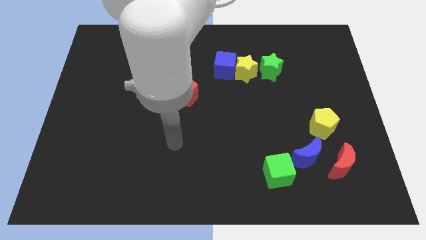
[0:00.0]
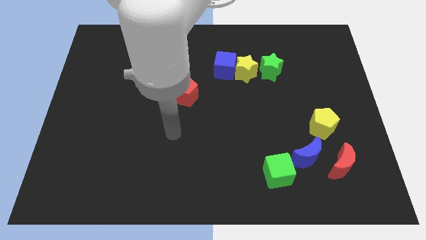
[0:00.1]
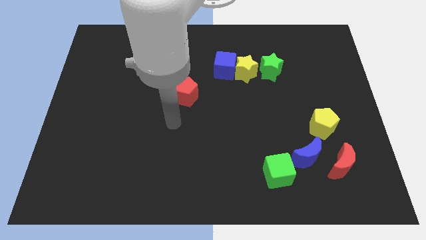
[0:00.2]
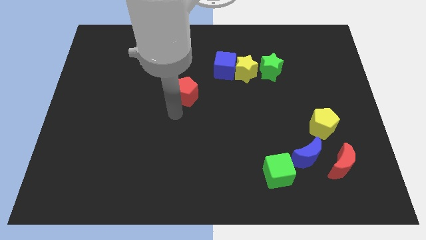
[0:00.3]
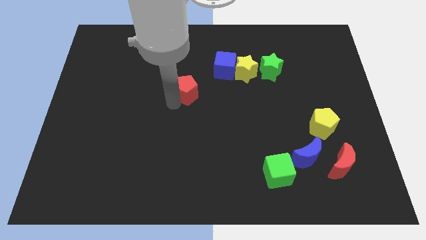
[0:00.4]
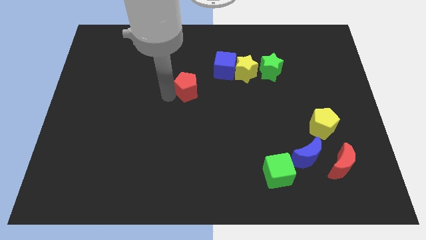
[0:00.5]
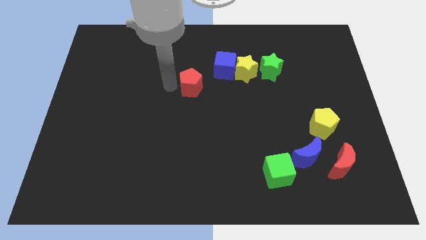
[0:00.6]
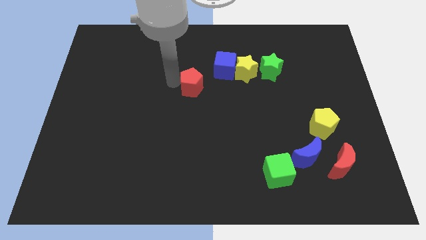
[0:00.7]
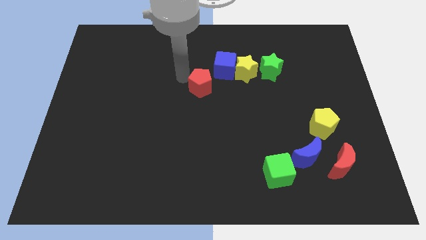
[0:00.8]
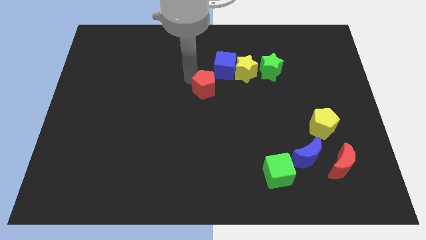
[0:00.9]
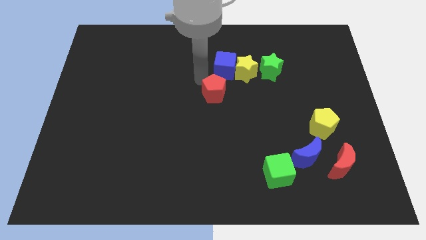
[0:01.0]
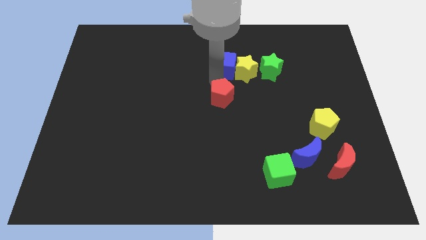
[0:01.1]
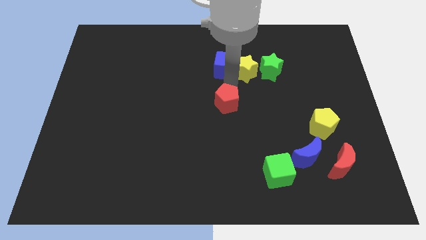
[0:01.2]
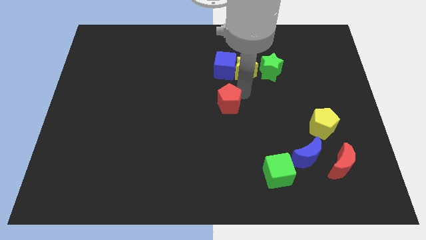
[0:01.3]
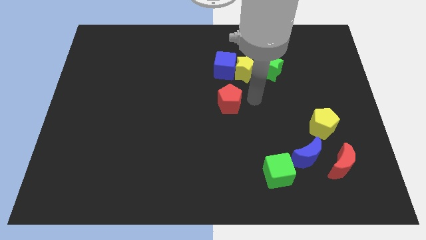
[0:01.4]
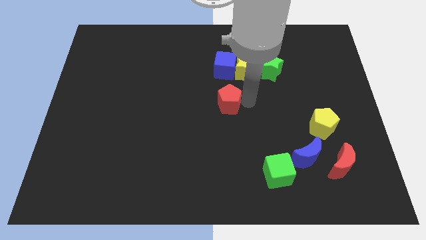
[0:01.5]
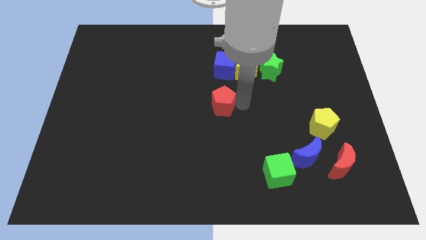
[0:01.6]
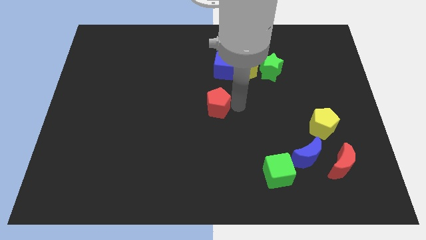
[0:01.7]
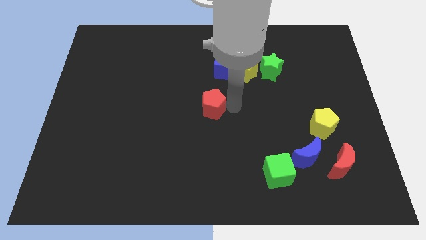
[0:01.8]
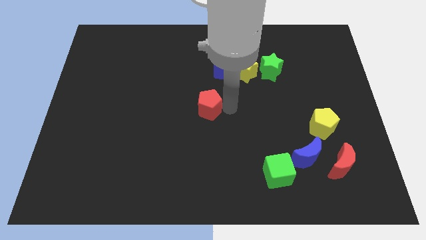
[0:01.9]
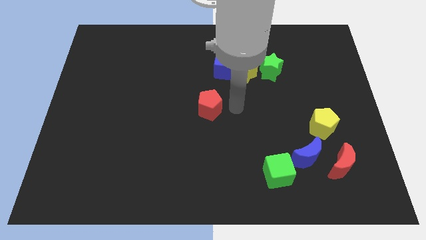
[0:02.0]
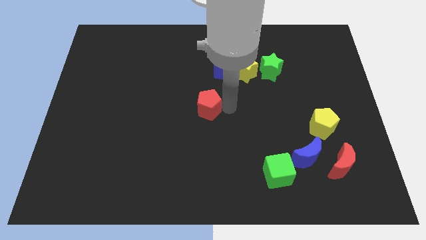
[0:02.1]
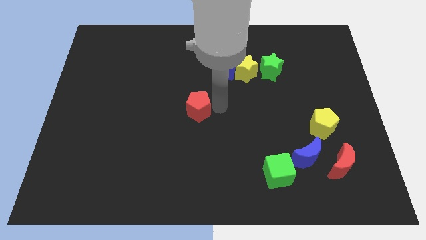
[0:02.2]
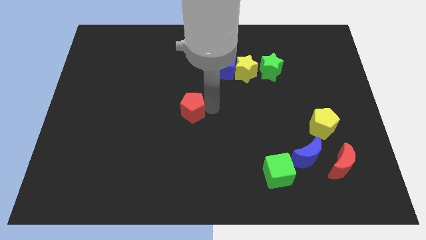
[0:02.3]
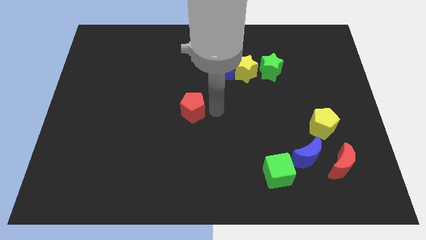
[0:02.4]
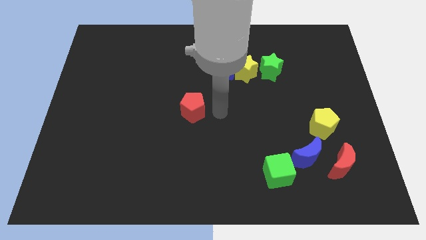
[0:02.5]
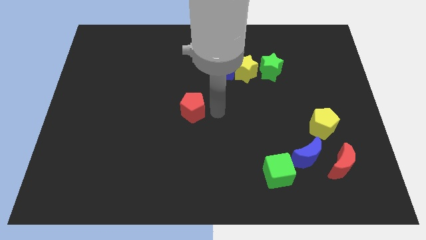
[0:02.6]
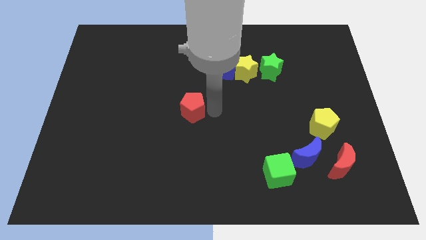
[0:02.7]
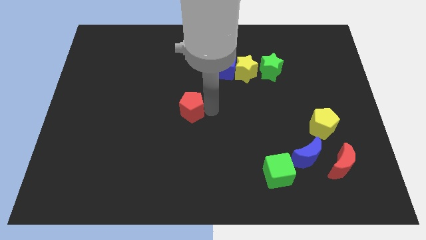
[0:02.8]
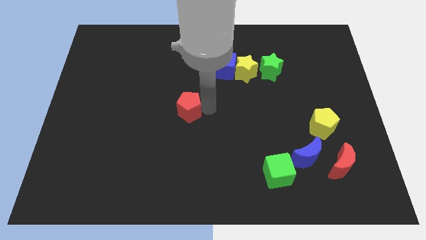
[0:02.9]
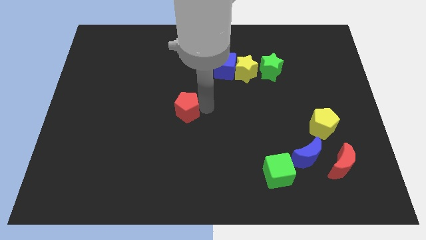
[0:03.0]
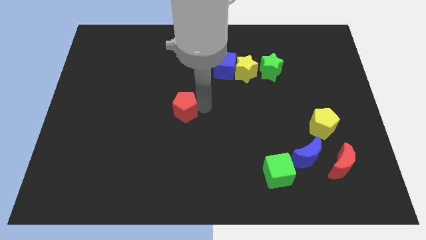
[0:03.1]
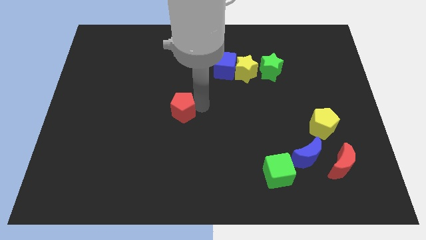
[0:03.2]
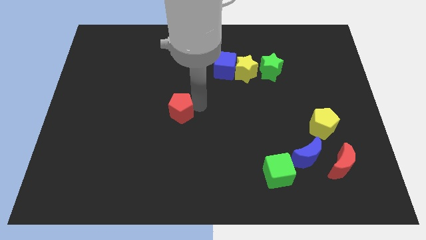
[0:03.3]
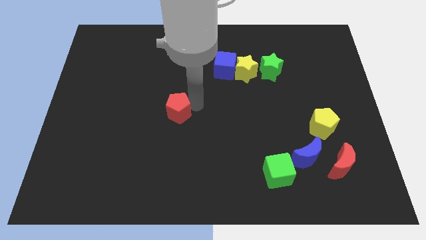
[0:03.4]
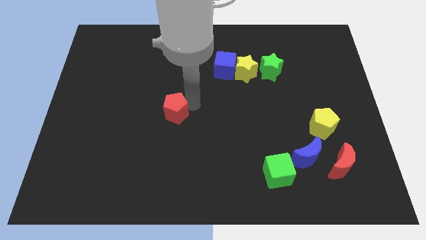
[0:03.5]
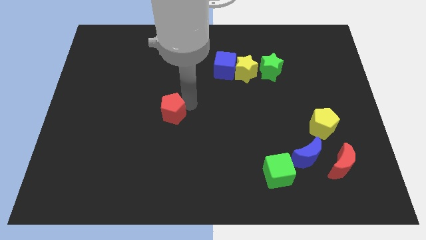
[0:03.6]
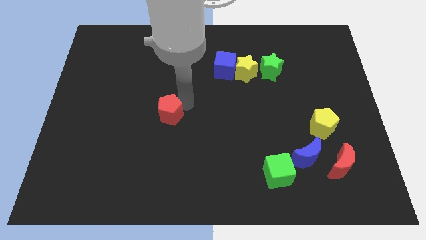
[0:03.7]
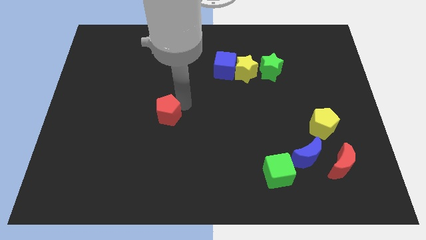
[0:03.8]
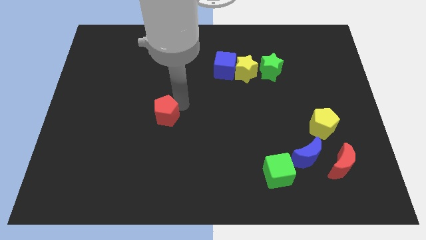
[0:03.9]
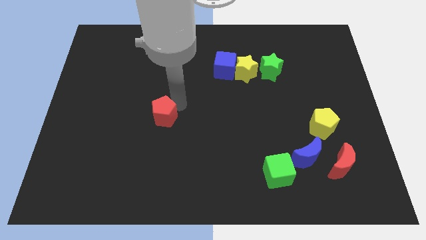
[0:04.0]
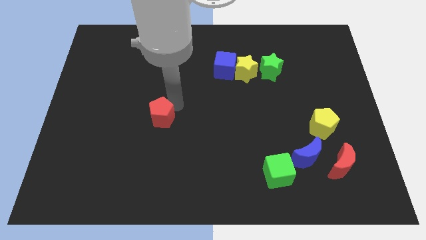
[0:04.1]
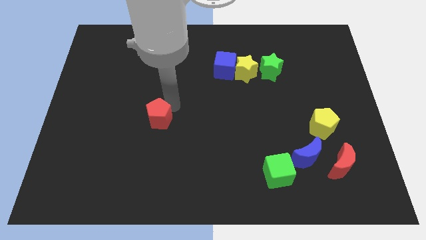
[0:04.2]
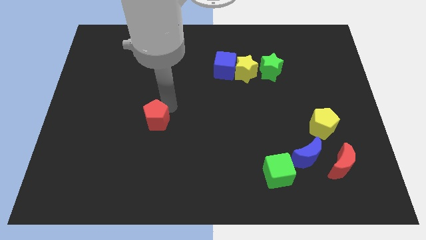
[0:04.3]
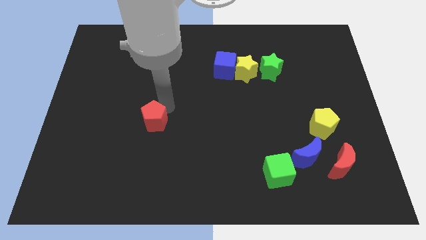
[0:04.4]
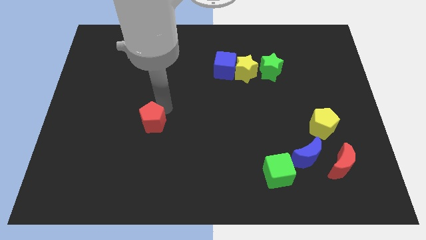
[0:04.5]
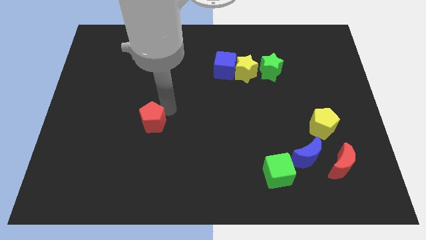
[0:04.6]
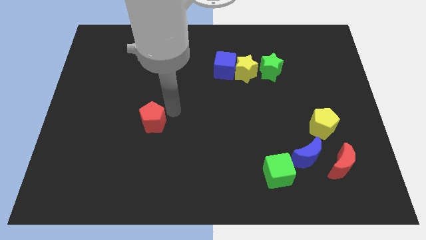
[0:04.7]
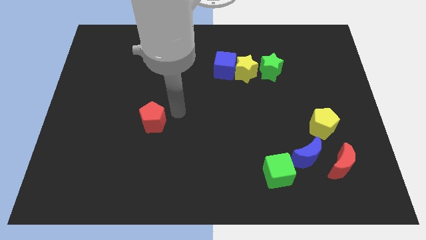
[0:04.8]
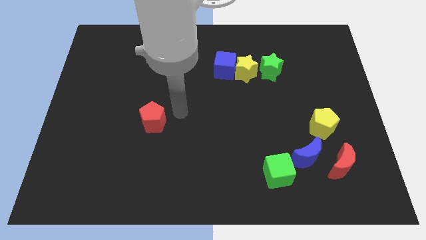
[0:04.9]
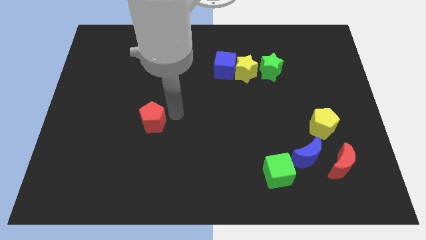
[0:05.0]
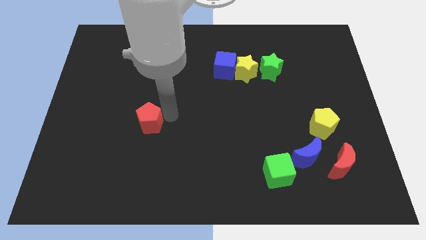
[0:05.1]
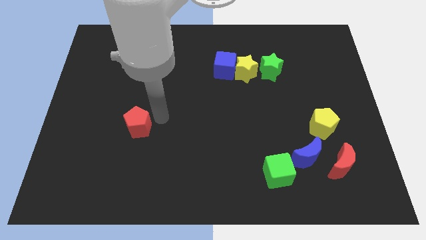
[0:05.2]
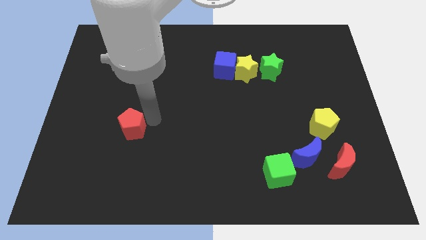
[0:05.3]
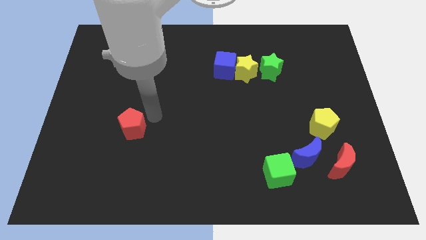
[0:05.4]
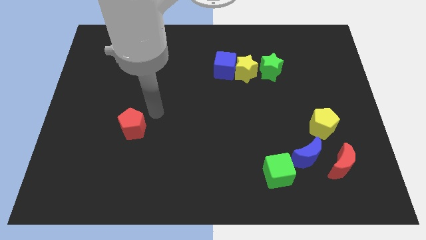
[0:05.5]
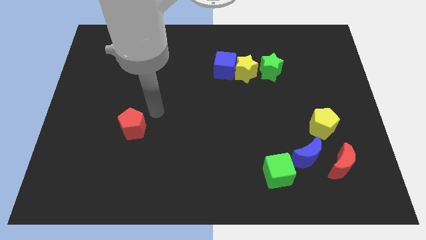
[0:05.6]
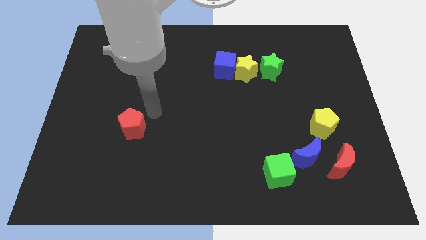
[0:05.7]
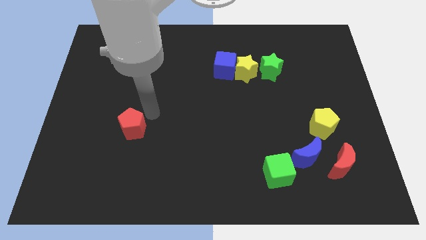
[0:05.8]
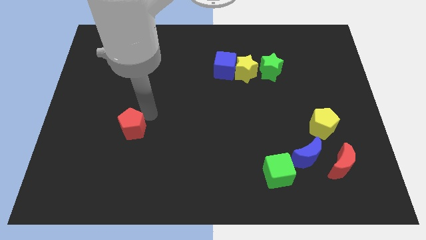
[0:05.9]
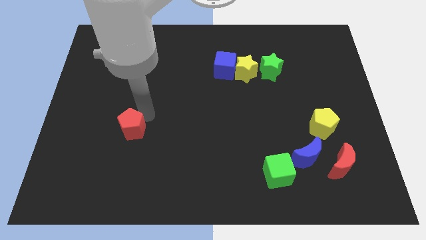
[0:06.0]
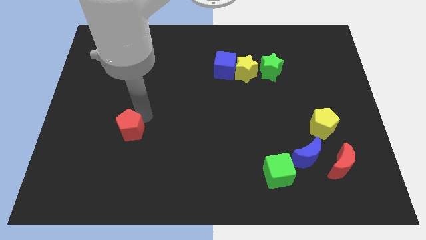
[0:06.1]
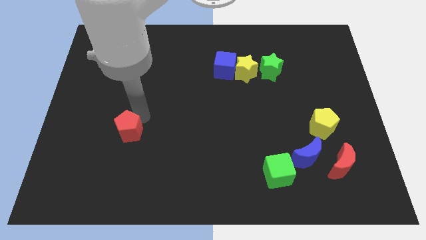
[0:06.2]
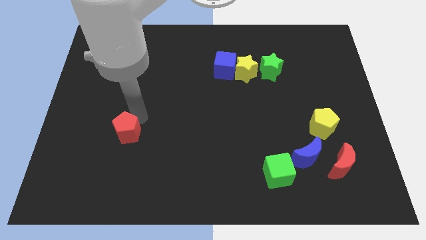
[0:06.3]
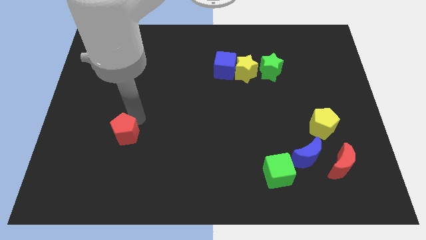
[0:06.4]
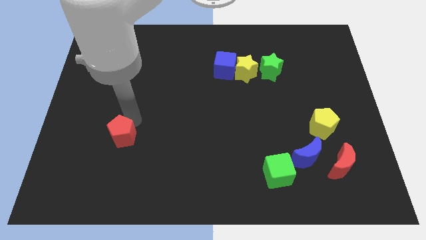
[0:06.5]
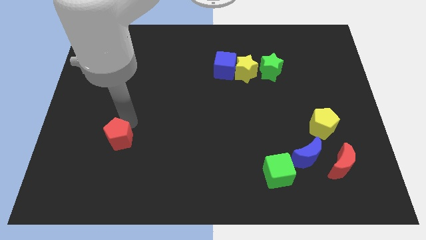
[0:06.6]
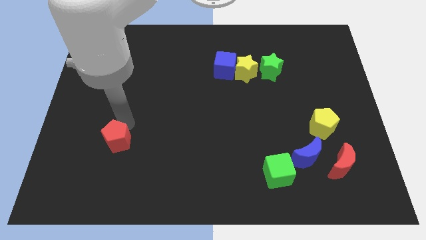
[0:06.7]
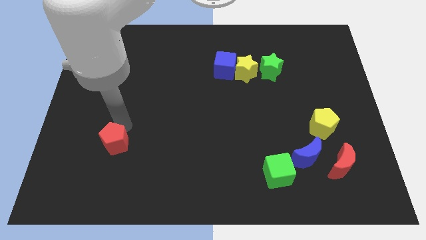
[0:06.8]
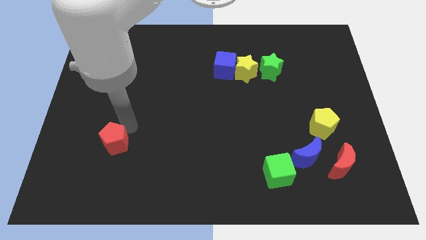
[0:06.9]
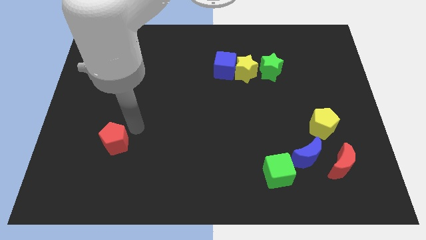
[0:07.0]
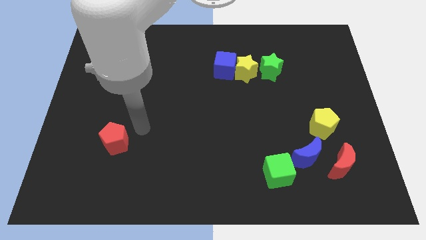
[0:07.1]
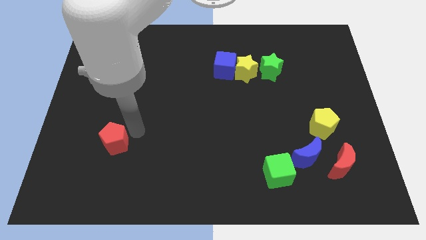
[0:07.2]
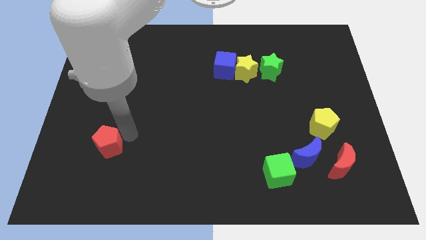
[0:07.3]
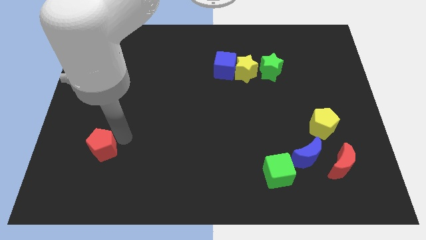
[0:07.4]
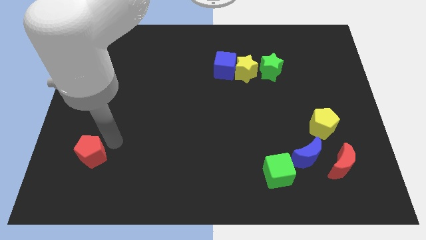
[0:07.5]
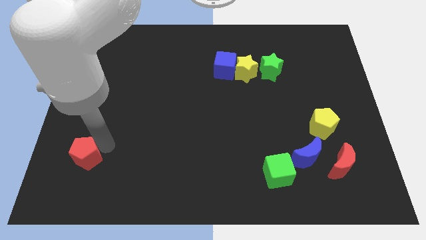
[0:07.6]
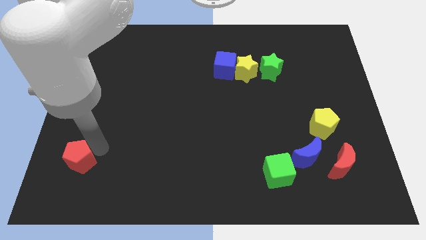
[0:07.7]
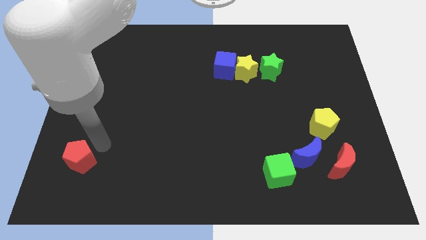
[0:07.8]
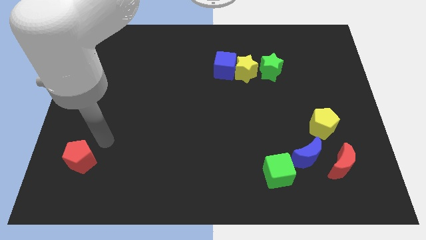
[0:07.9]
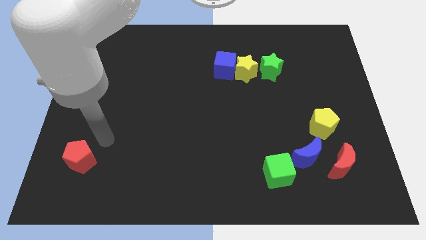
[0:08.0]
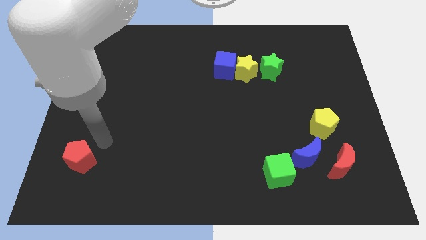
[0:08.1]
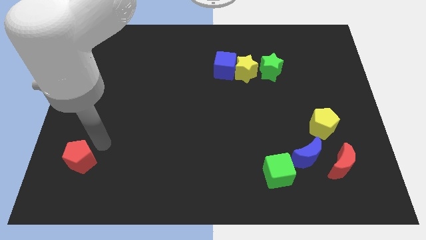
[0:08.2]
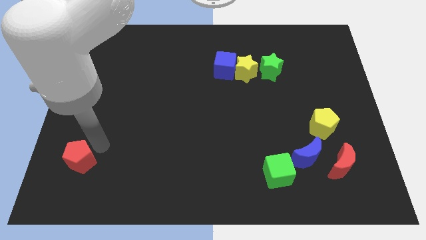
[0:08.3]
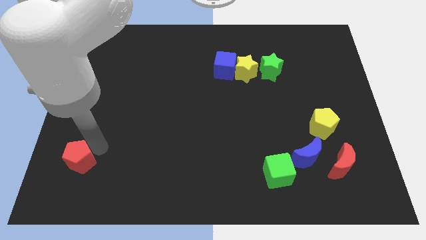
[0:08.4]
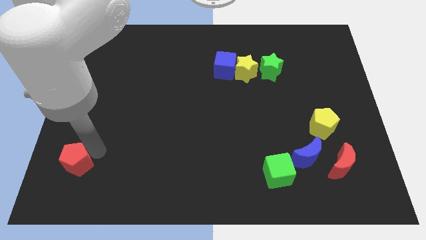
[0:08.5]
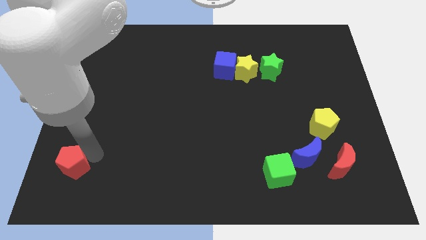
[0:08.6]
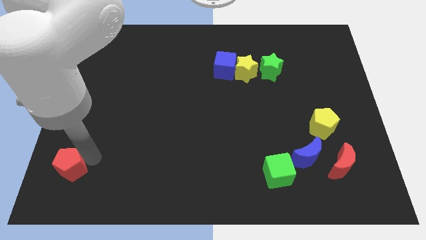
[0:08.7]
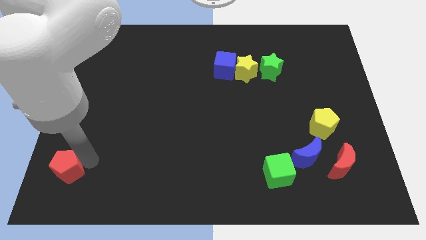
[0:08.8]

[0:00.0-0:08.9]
put the red pentagon to the bottom left corner
